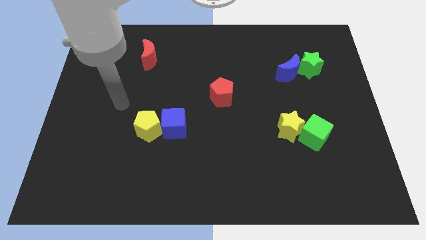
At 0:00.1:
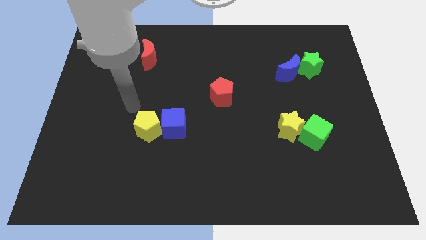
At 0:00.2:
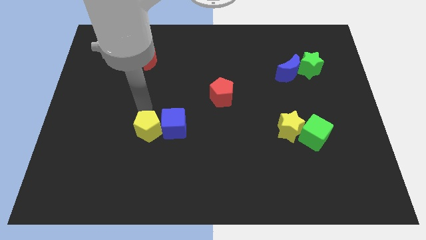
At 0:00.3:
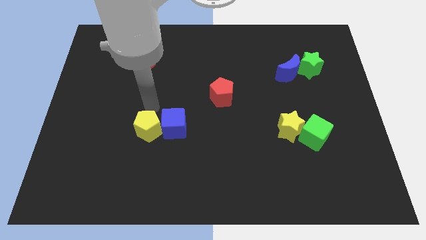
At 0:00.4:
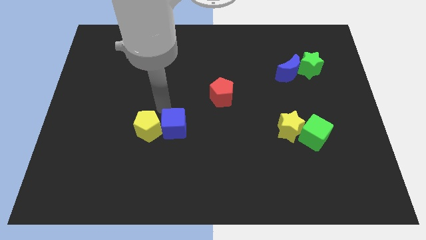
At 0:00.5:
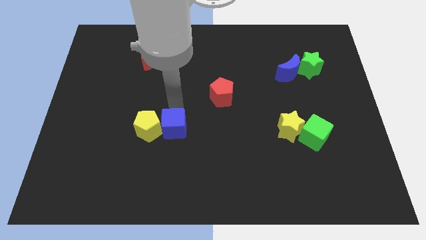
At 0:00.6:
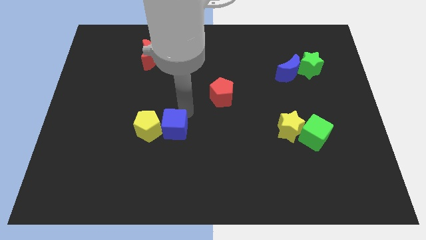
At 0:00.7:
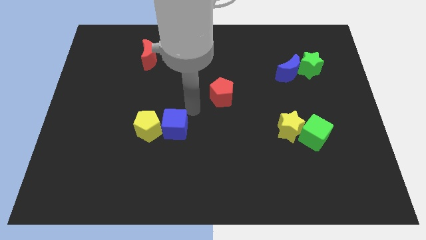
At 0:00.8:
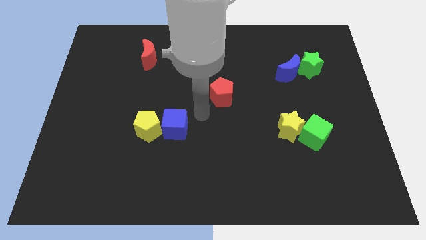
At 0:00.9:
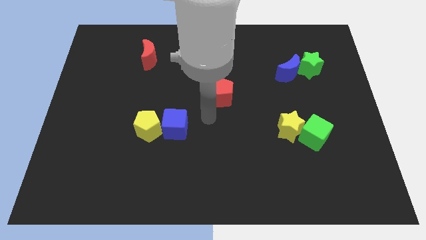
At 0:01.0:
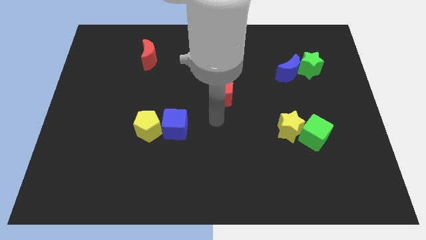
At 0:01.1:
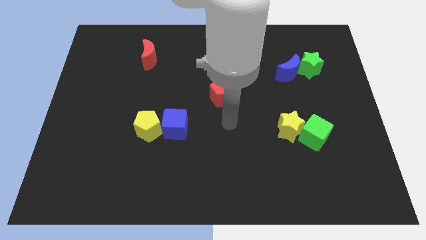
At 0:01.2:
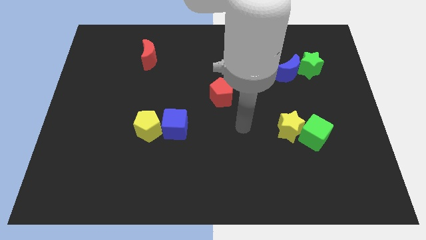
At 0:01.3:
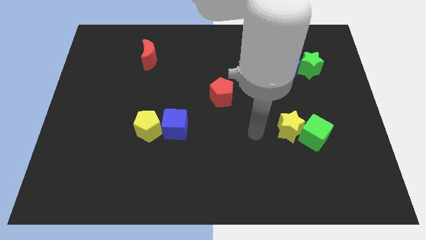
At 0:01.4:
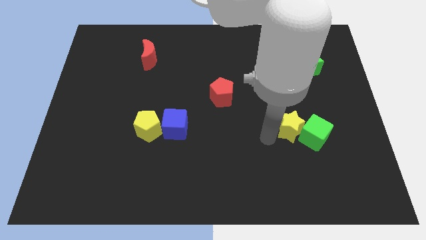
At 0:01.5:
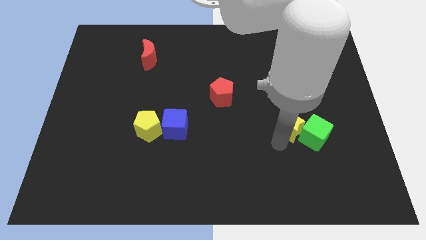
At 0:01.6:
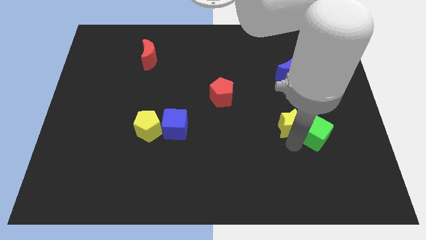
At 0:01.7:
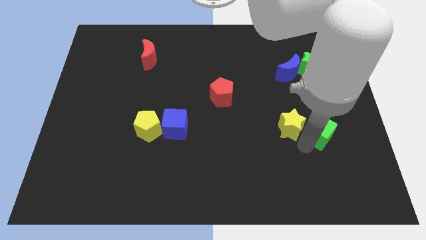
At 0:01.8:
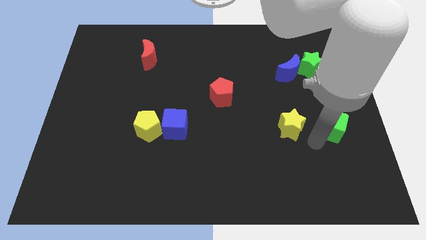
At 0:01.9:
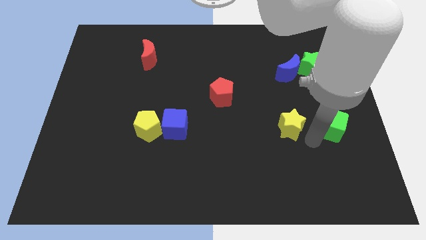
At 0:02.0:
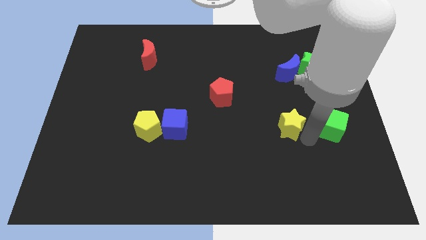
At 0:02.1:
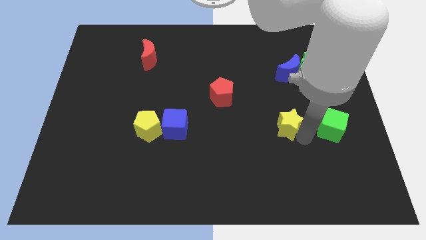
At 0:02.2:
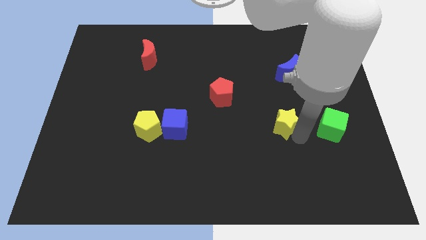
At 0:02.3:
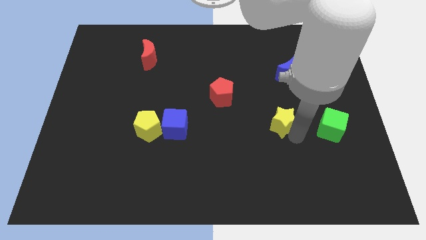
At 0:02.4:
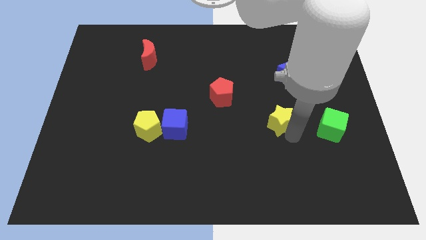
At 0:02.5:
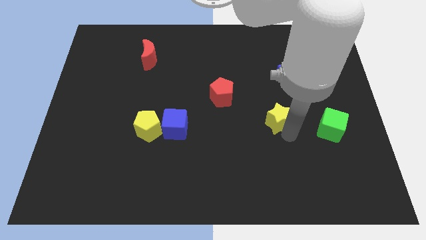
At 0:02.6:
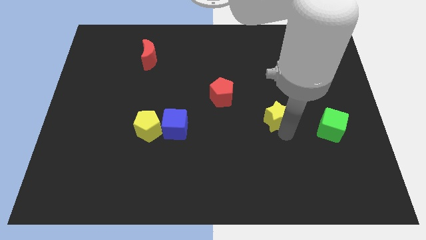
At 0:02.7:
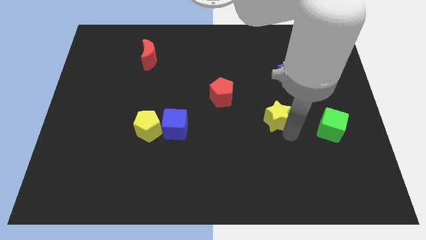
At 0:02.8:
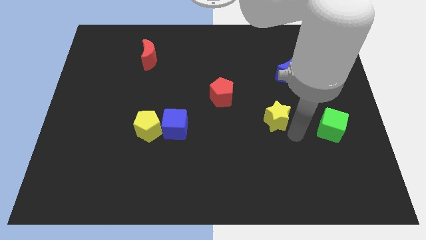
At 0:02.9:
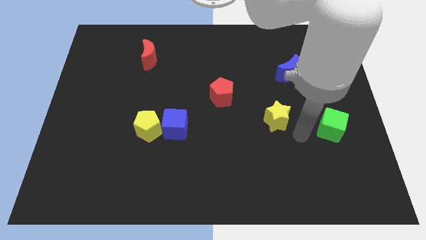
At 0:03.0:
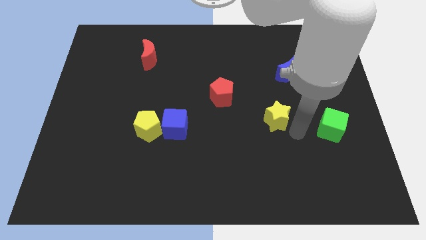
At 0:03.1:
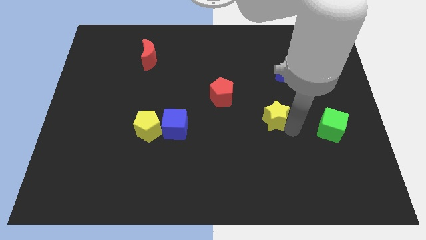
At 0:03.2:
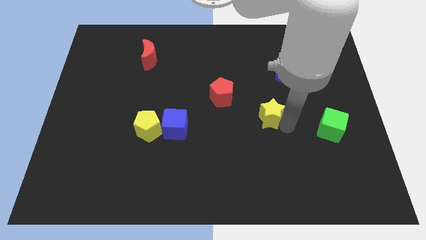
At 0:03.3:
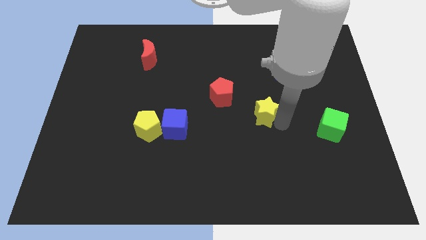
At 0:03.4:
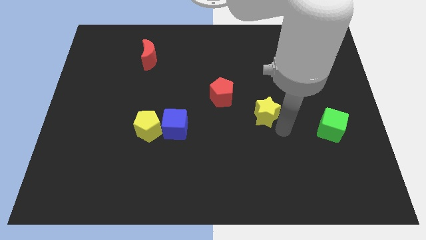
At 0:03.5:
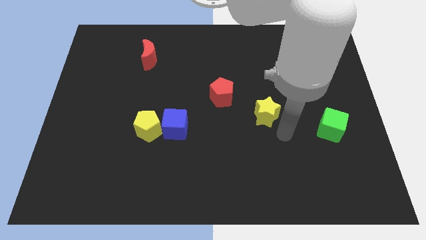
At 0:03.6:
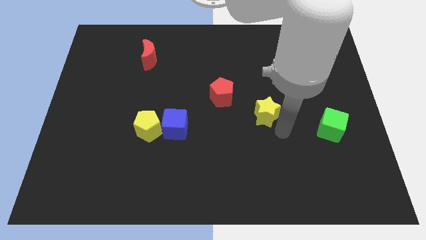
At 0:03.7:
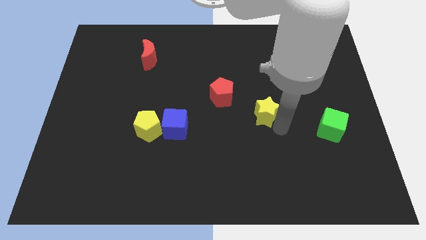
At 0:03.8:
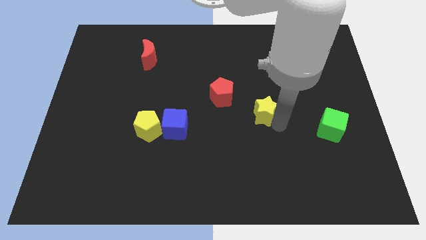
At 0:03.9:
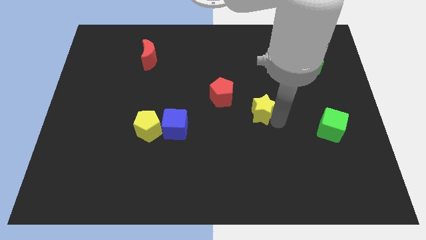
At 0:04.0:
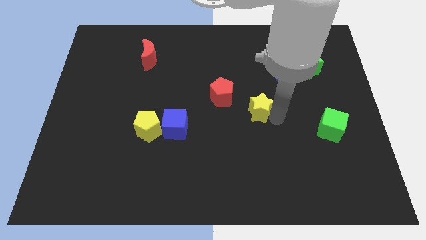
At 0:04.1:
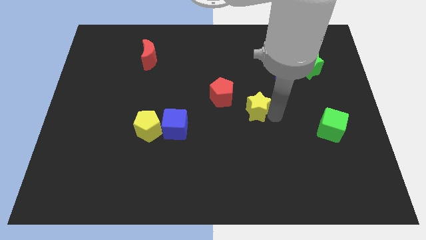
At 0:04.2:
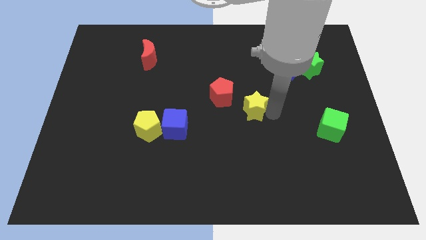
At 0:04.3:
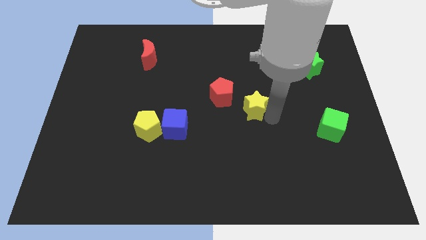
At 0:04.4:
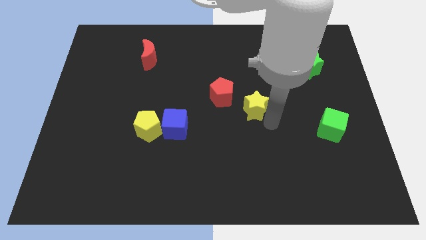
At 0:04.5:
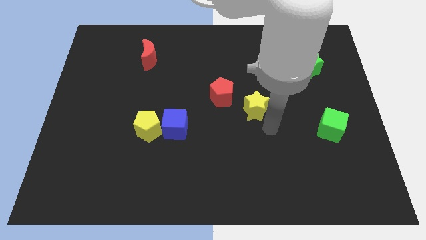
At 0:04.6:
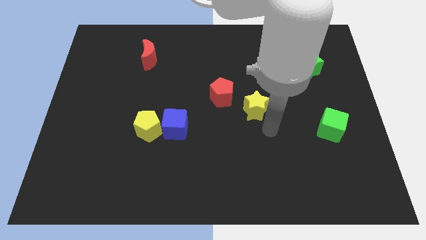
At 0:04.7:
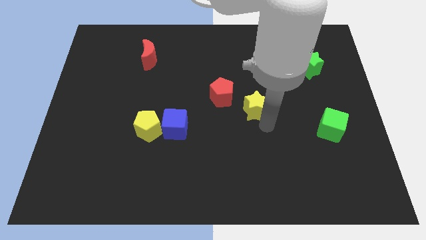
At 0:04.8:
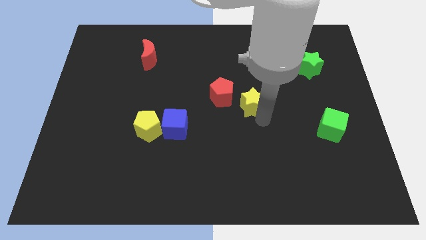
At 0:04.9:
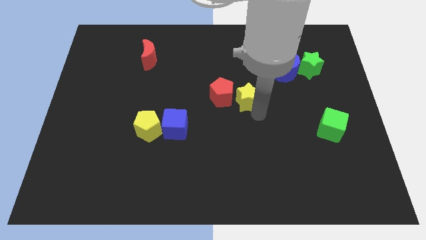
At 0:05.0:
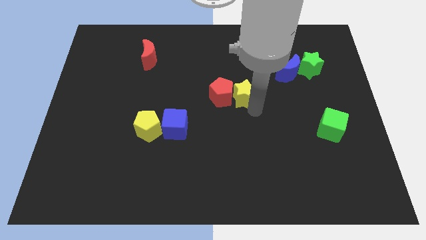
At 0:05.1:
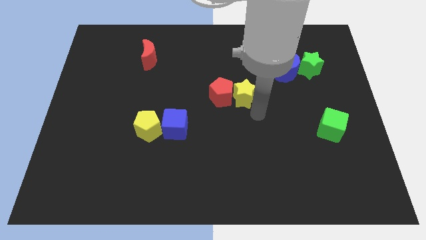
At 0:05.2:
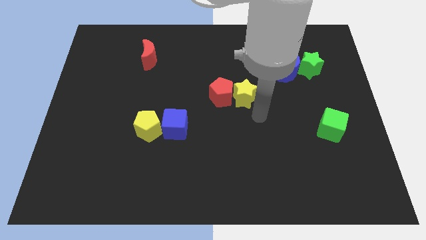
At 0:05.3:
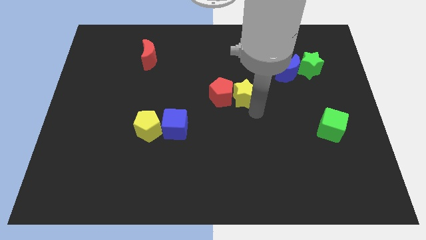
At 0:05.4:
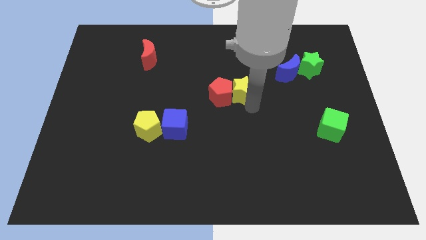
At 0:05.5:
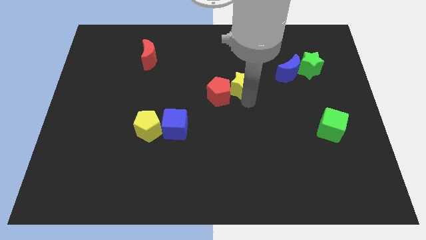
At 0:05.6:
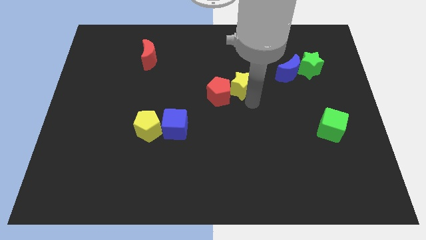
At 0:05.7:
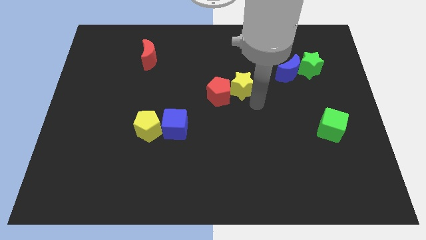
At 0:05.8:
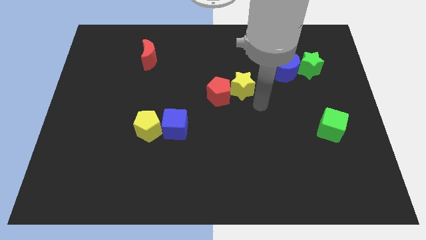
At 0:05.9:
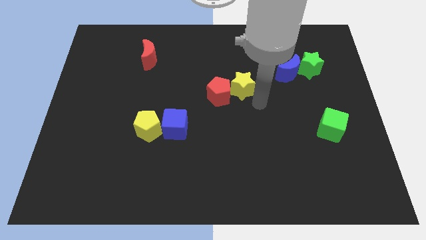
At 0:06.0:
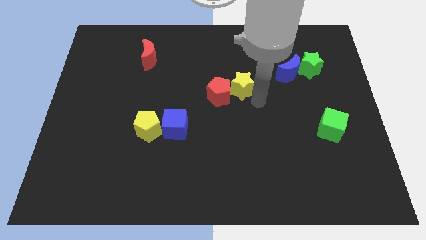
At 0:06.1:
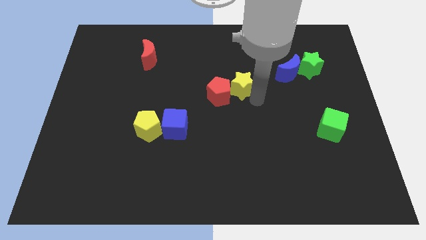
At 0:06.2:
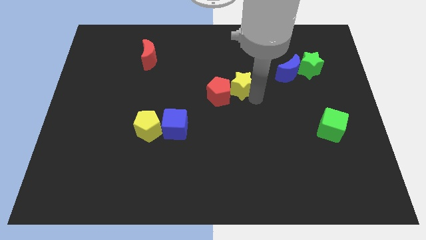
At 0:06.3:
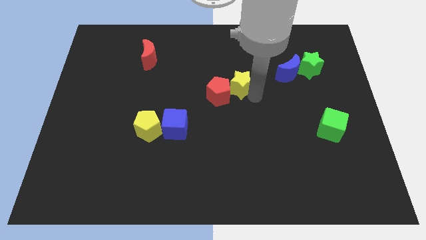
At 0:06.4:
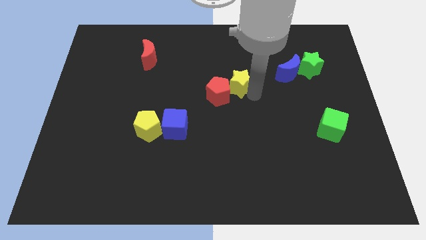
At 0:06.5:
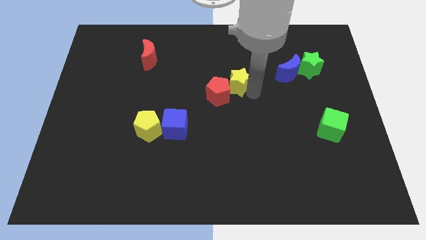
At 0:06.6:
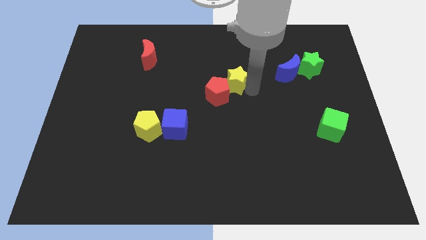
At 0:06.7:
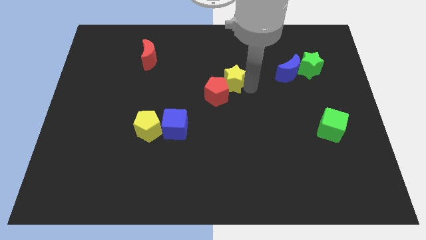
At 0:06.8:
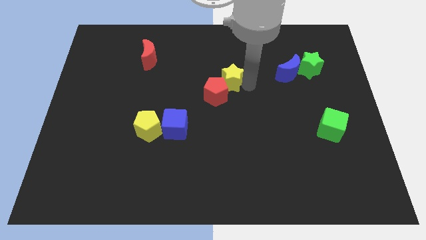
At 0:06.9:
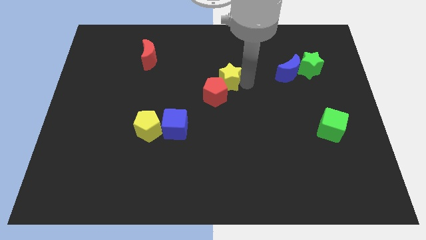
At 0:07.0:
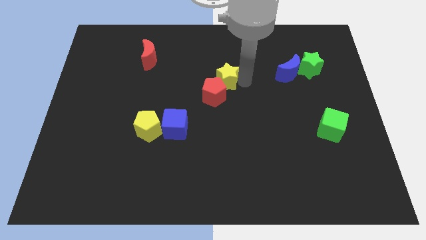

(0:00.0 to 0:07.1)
slide the yellow star up and left

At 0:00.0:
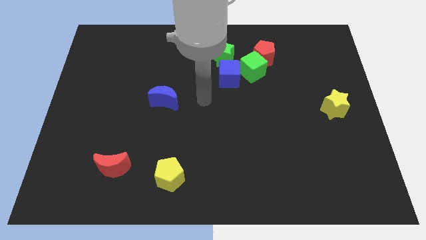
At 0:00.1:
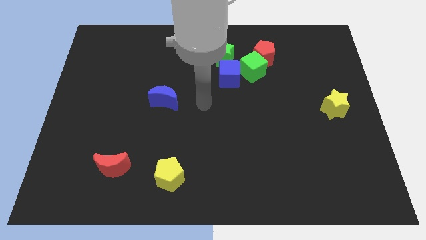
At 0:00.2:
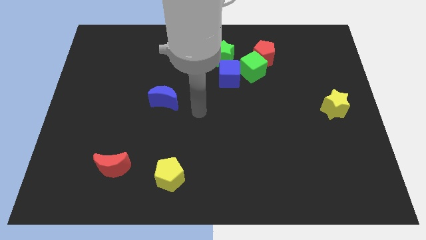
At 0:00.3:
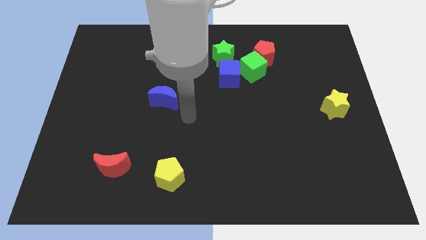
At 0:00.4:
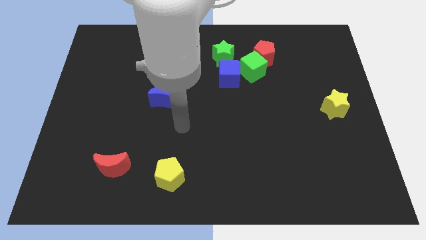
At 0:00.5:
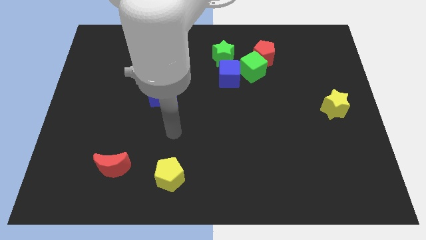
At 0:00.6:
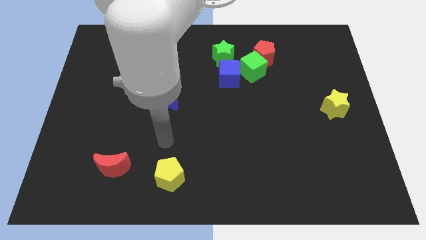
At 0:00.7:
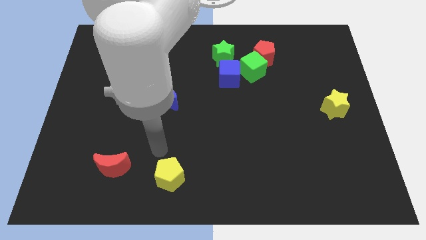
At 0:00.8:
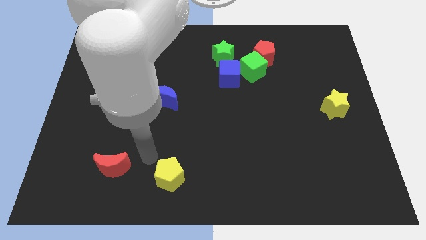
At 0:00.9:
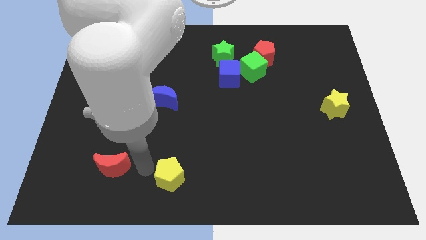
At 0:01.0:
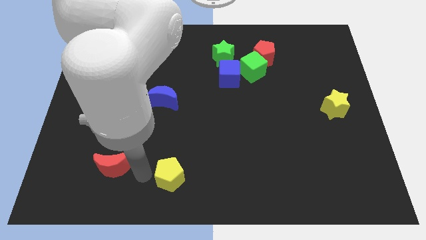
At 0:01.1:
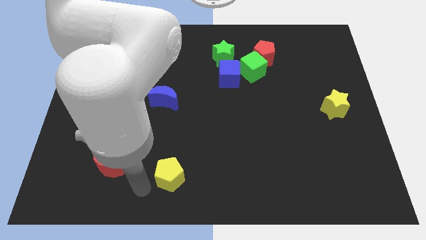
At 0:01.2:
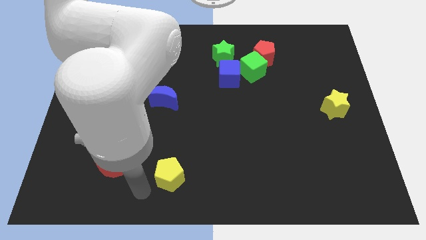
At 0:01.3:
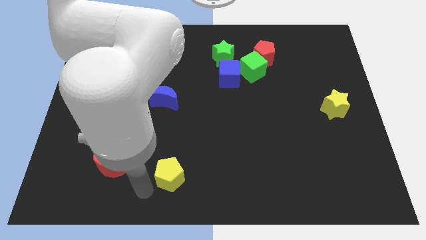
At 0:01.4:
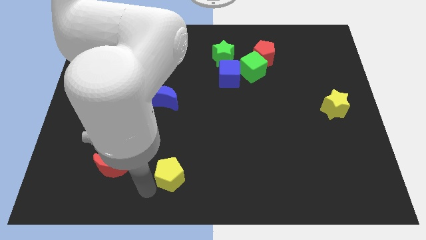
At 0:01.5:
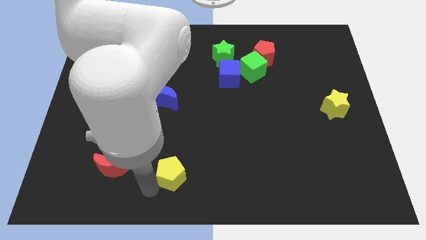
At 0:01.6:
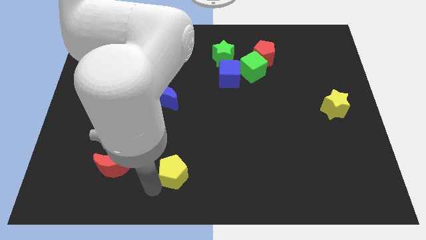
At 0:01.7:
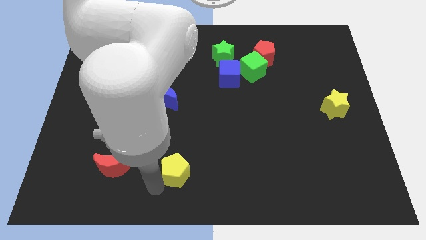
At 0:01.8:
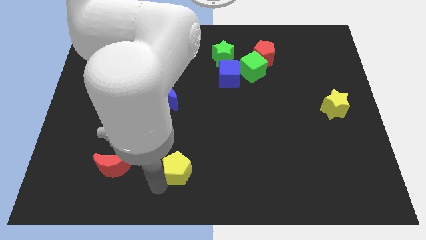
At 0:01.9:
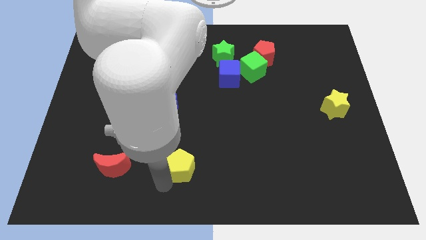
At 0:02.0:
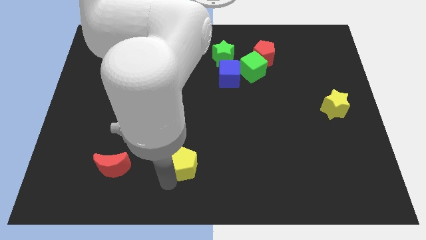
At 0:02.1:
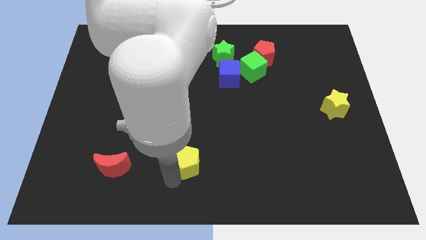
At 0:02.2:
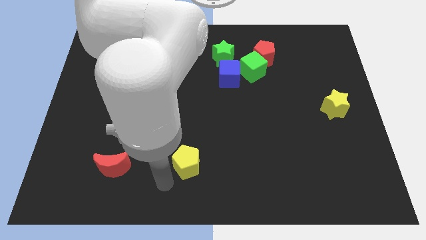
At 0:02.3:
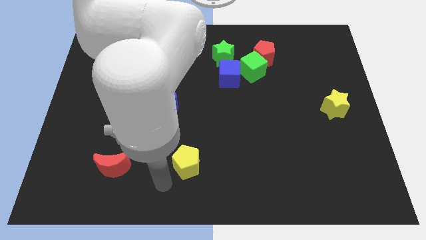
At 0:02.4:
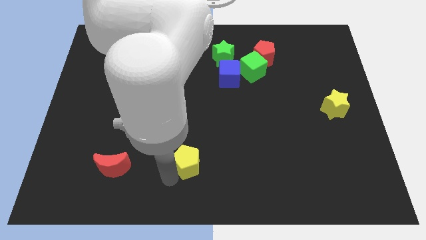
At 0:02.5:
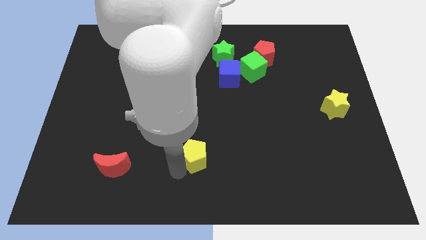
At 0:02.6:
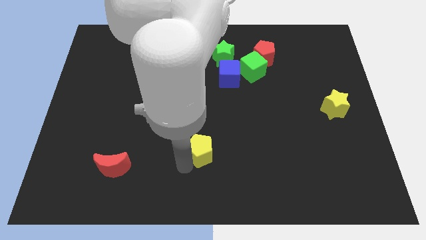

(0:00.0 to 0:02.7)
slide the yellow pentagon slightly up and to the right diagonally
